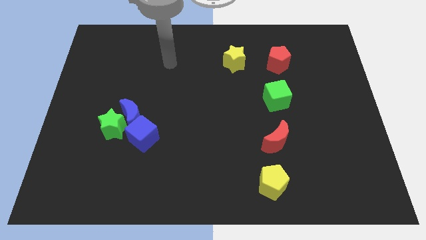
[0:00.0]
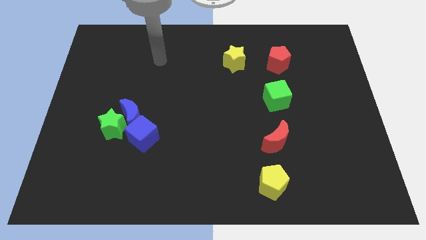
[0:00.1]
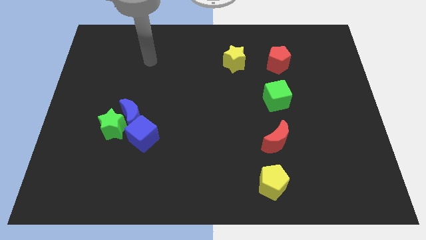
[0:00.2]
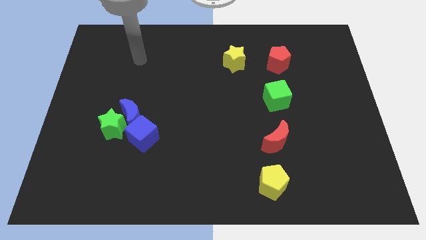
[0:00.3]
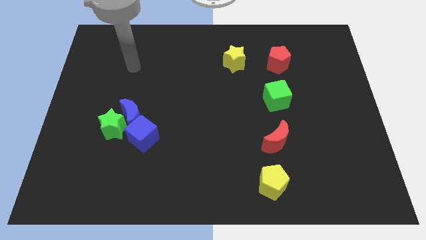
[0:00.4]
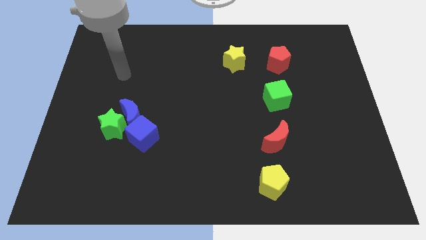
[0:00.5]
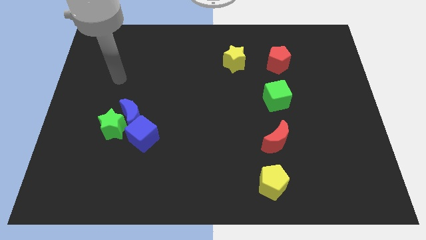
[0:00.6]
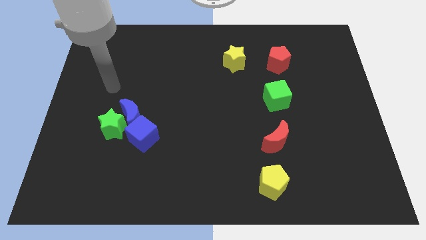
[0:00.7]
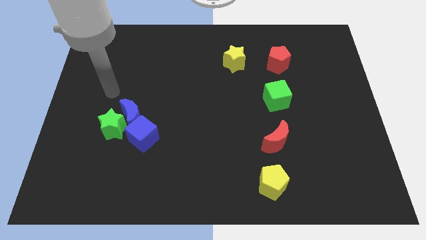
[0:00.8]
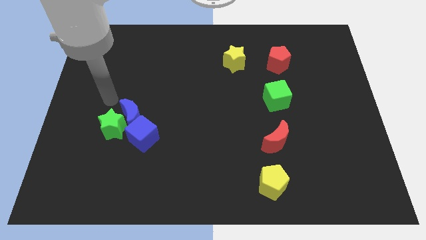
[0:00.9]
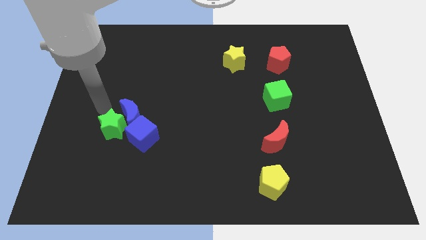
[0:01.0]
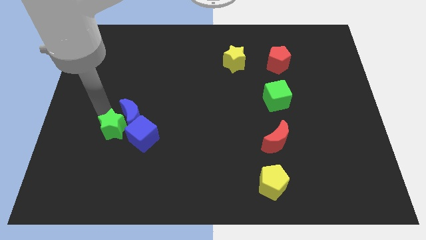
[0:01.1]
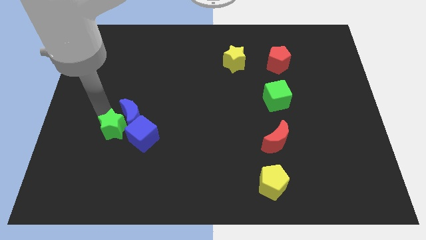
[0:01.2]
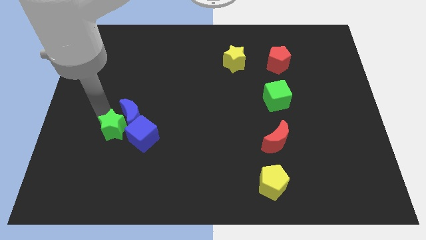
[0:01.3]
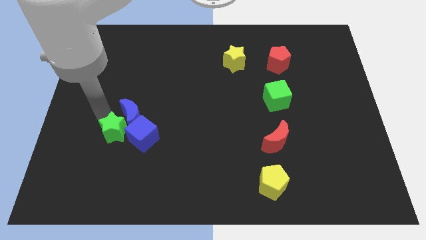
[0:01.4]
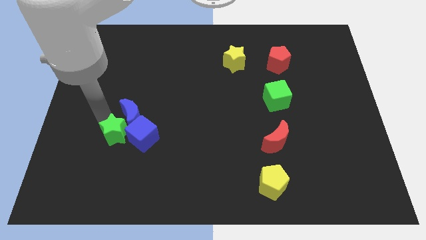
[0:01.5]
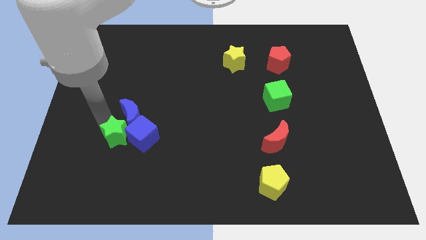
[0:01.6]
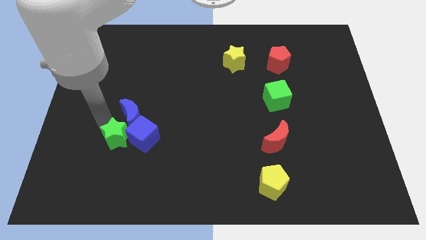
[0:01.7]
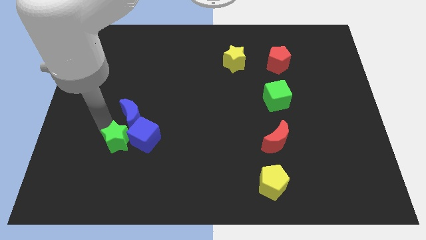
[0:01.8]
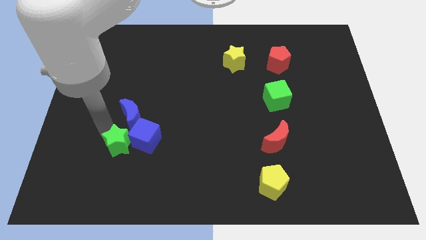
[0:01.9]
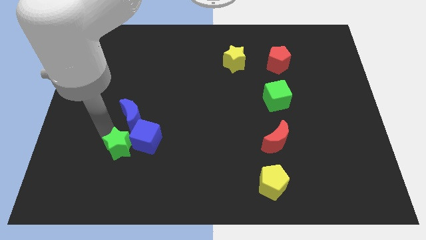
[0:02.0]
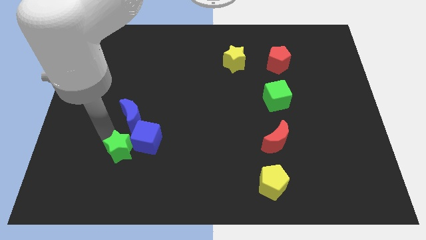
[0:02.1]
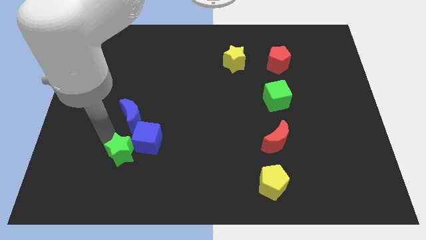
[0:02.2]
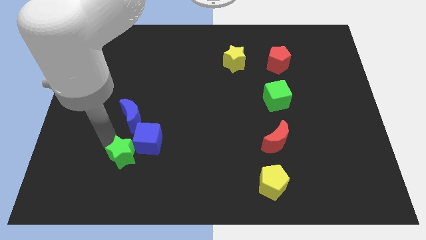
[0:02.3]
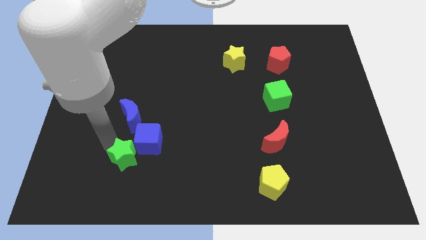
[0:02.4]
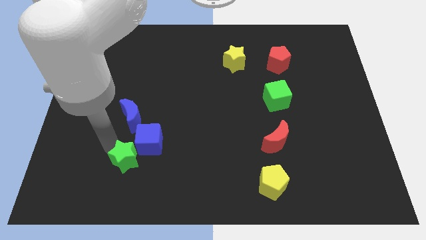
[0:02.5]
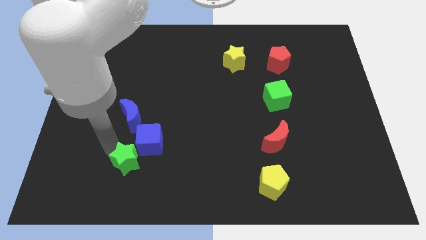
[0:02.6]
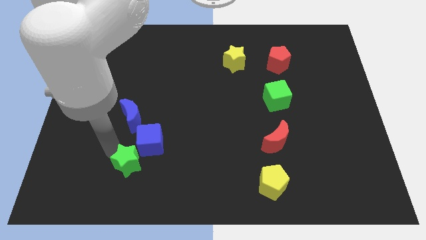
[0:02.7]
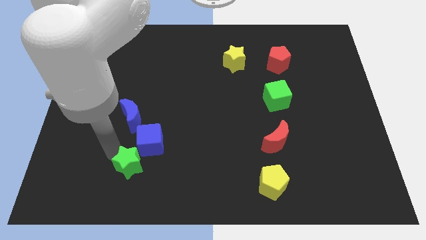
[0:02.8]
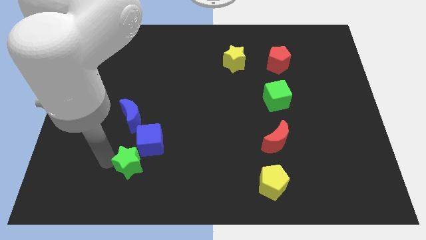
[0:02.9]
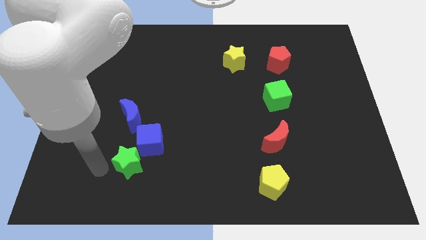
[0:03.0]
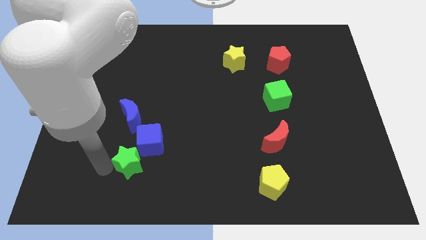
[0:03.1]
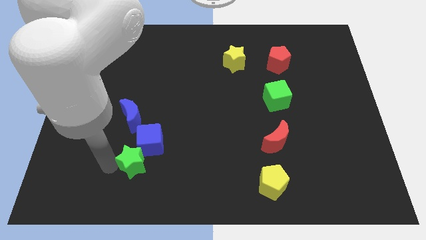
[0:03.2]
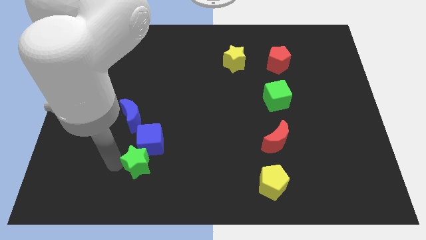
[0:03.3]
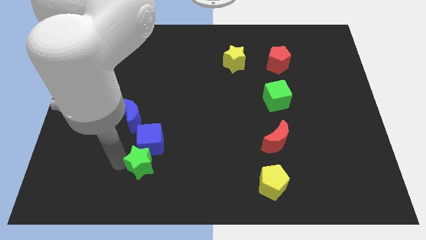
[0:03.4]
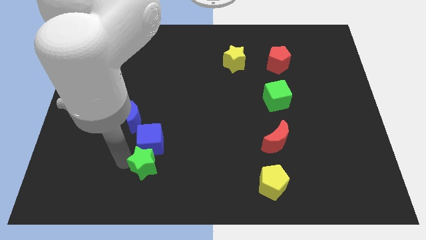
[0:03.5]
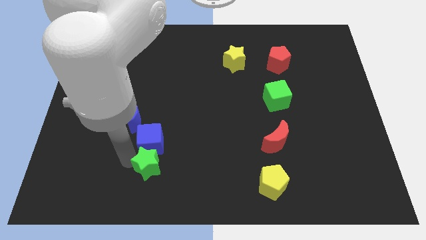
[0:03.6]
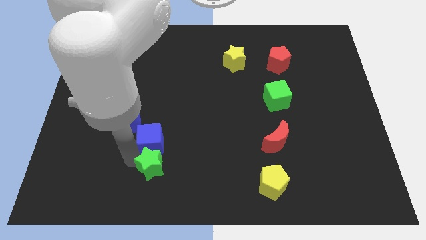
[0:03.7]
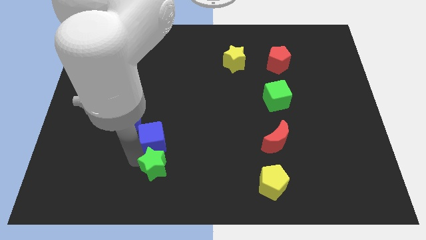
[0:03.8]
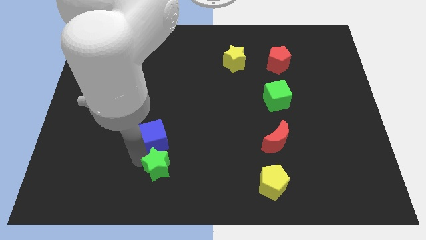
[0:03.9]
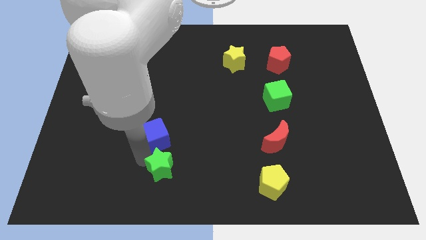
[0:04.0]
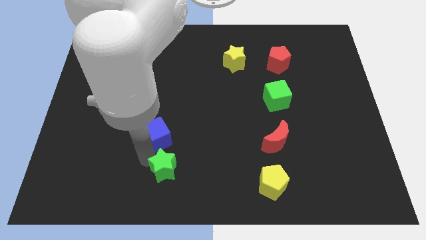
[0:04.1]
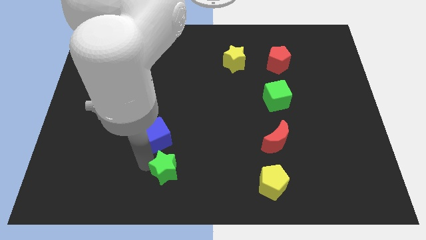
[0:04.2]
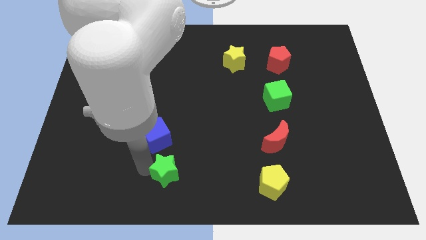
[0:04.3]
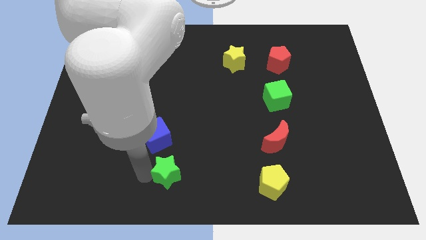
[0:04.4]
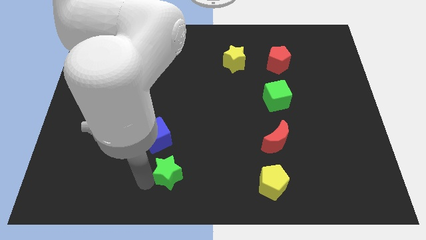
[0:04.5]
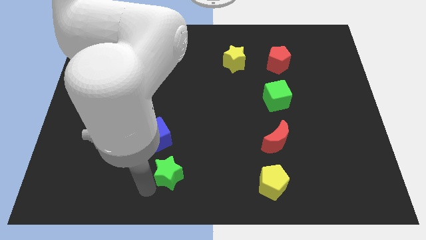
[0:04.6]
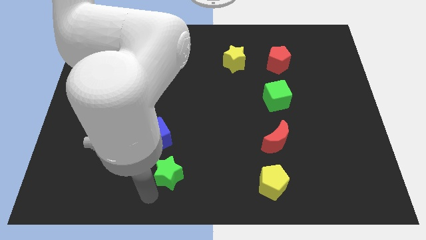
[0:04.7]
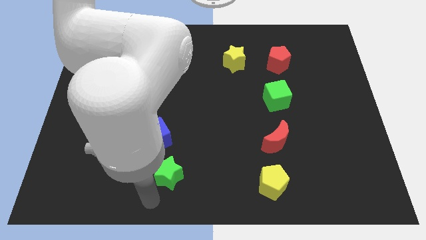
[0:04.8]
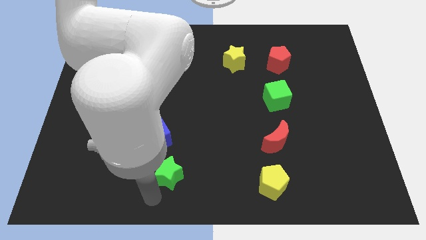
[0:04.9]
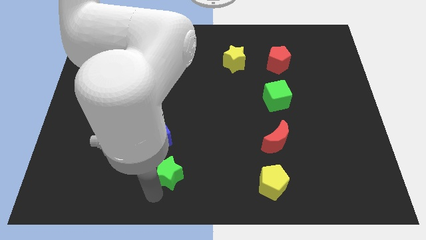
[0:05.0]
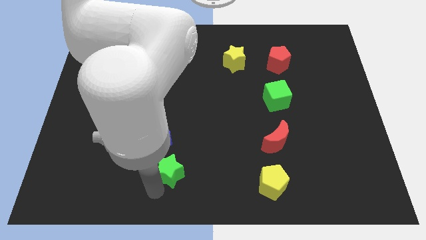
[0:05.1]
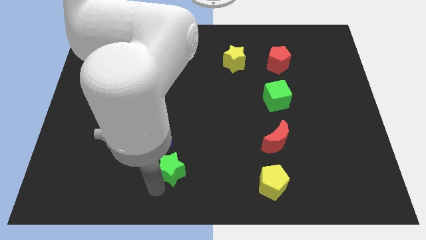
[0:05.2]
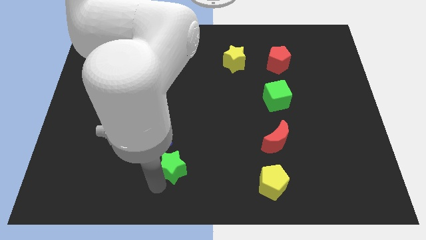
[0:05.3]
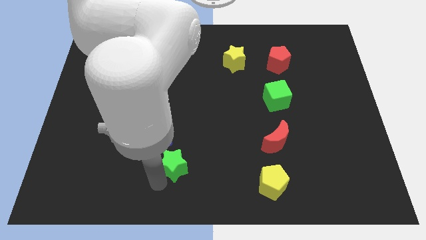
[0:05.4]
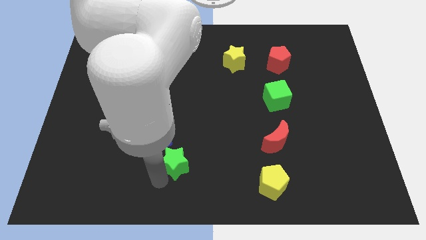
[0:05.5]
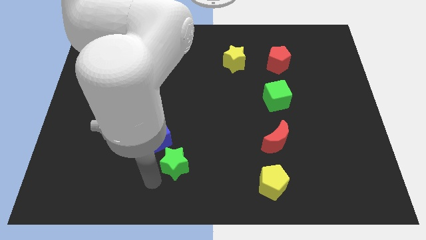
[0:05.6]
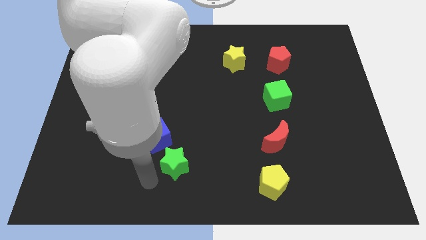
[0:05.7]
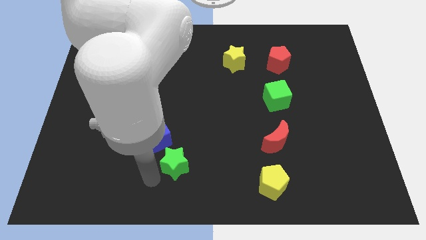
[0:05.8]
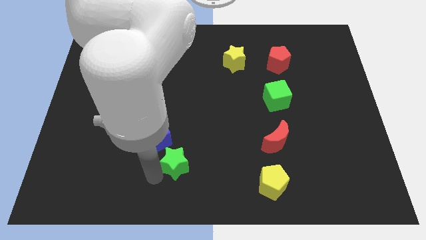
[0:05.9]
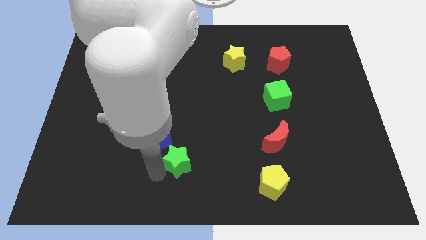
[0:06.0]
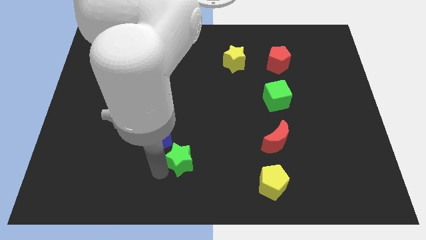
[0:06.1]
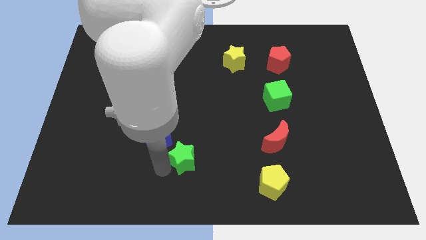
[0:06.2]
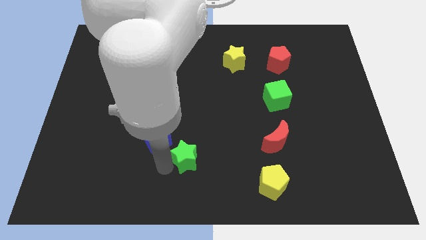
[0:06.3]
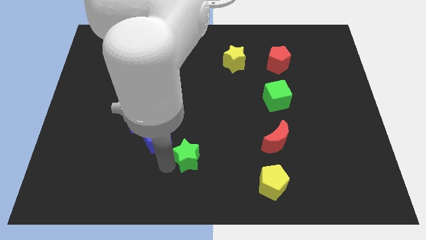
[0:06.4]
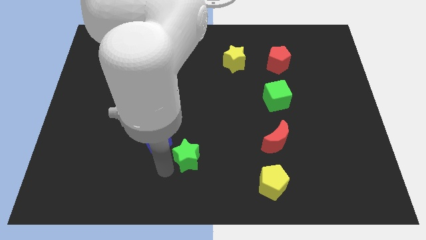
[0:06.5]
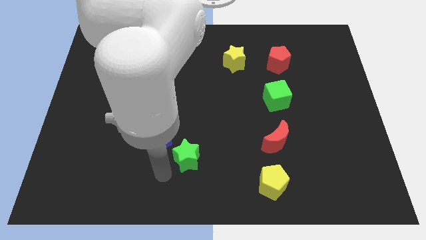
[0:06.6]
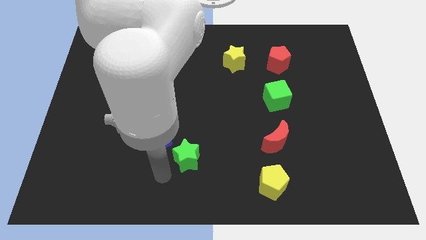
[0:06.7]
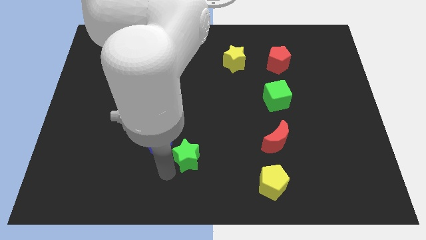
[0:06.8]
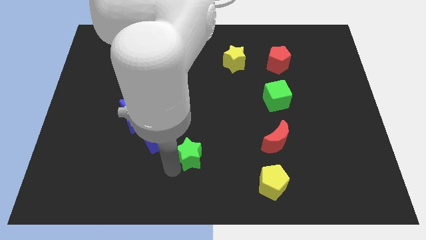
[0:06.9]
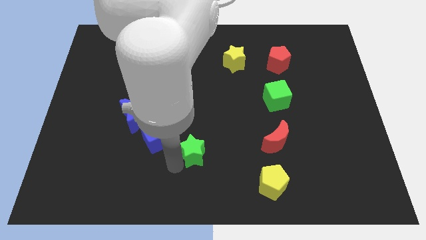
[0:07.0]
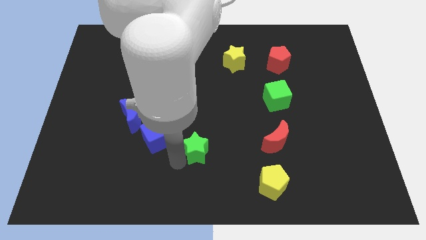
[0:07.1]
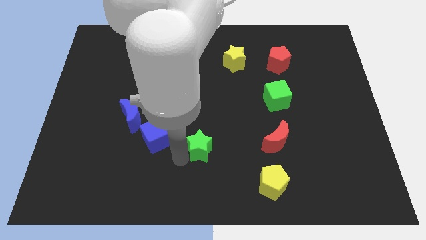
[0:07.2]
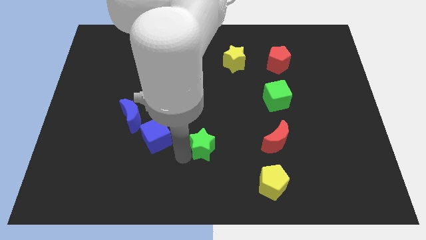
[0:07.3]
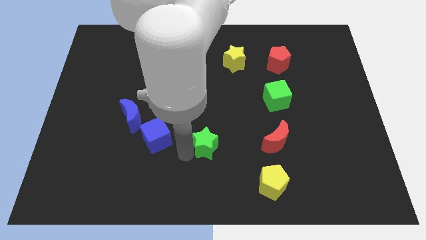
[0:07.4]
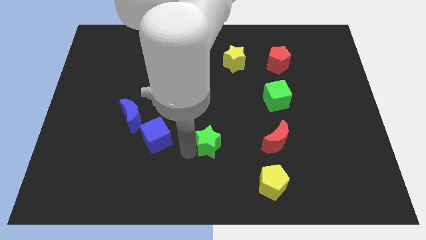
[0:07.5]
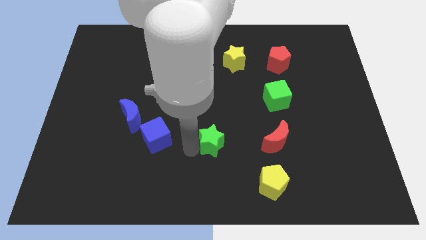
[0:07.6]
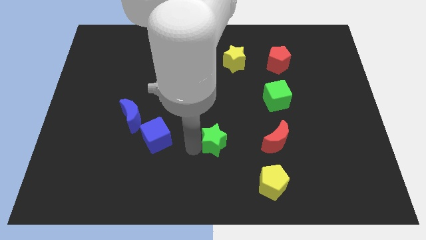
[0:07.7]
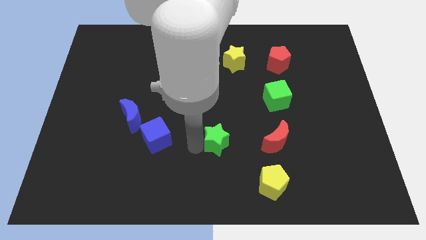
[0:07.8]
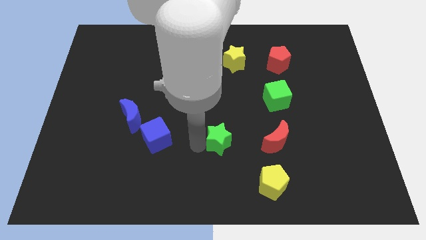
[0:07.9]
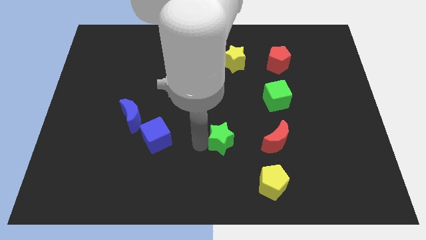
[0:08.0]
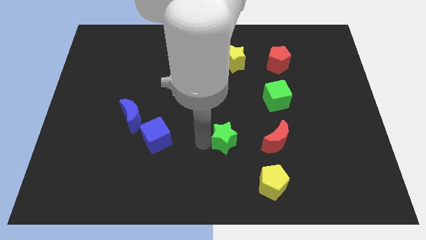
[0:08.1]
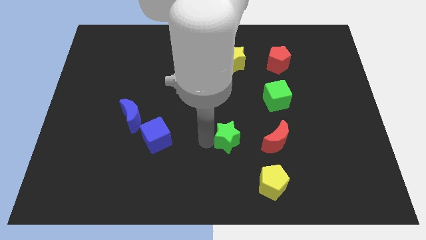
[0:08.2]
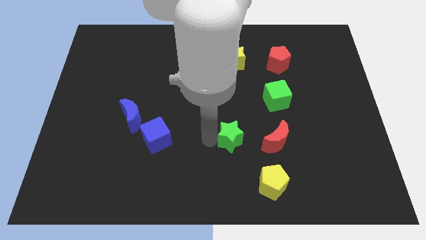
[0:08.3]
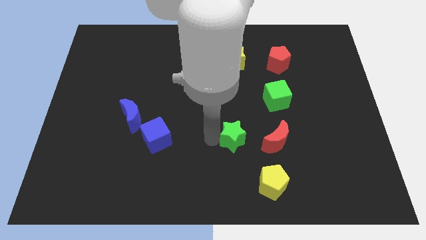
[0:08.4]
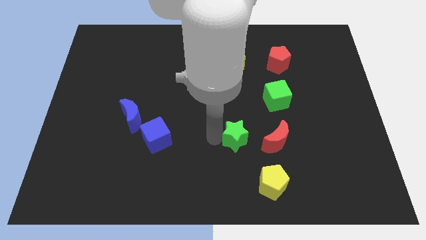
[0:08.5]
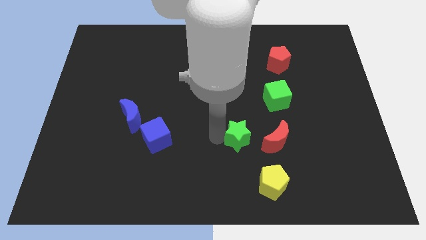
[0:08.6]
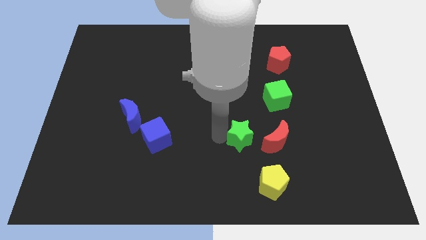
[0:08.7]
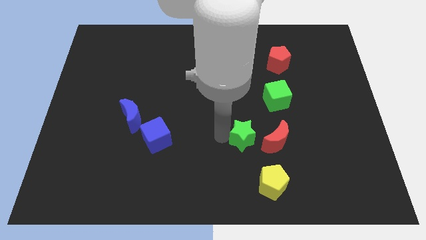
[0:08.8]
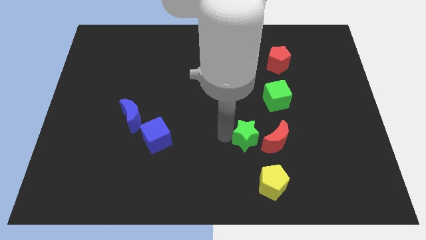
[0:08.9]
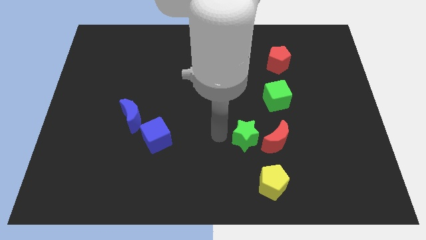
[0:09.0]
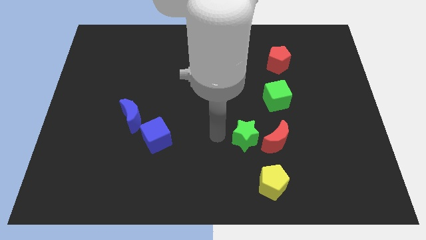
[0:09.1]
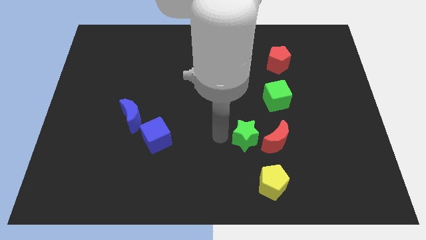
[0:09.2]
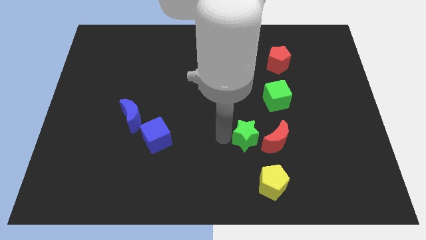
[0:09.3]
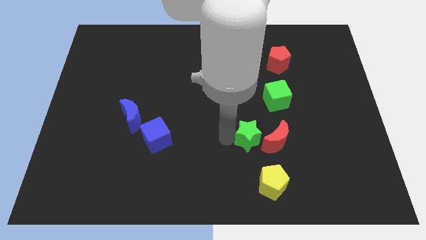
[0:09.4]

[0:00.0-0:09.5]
push the green star next to the red moon
